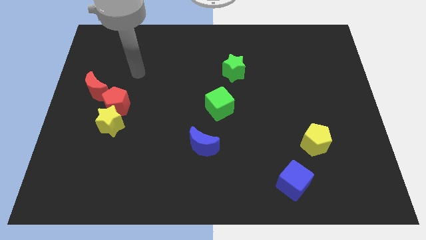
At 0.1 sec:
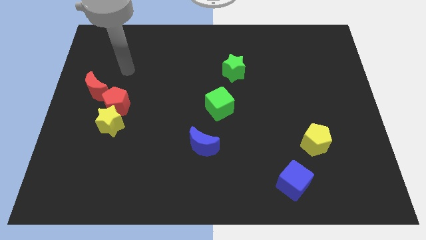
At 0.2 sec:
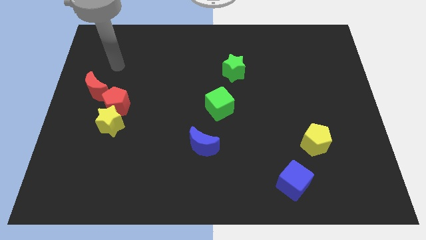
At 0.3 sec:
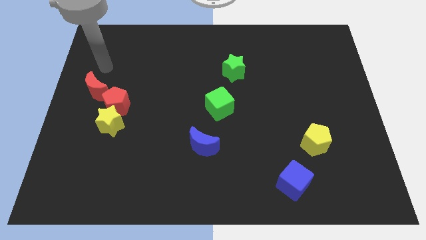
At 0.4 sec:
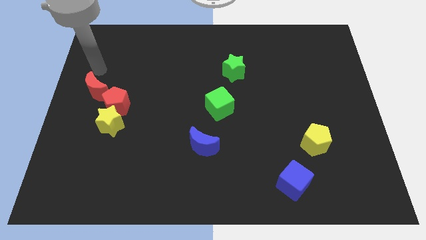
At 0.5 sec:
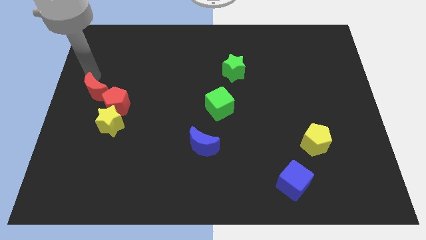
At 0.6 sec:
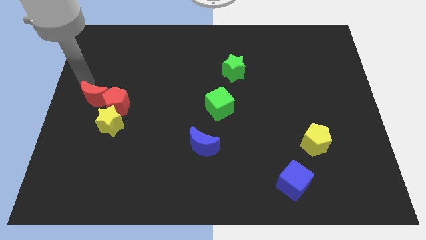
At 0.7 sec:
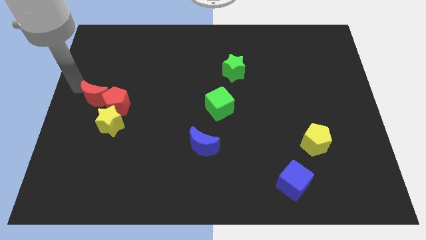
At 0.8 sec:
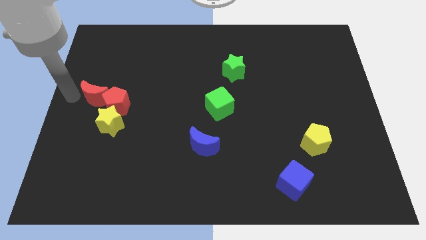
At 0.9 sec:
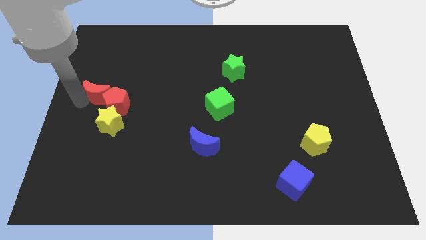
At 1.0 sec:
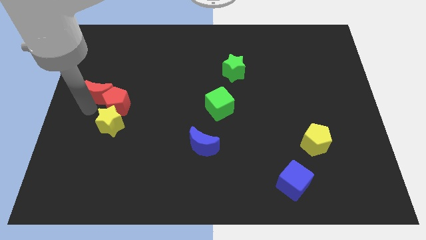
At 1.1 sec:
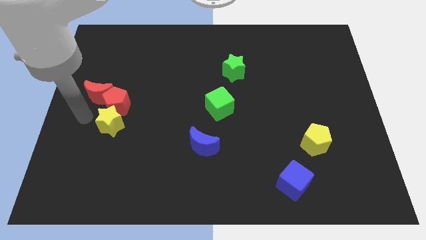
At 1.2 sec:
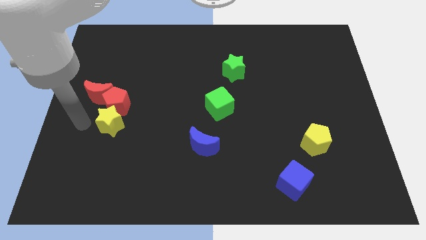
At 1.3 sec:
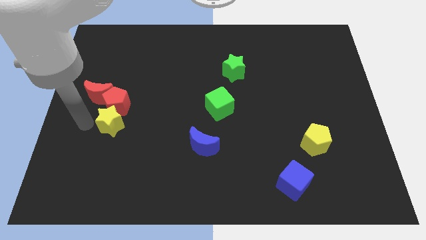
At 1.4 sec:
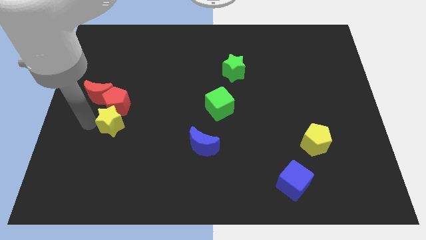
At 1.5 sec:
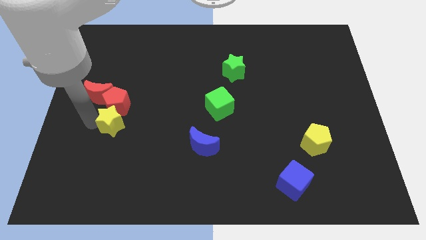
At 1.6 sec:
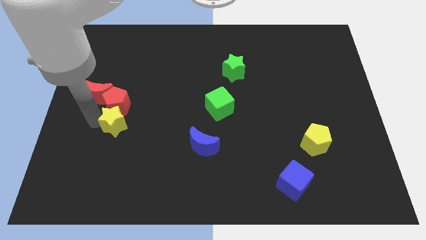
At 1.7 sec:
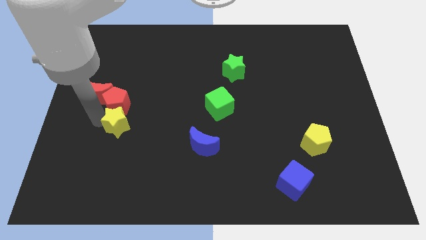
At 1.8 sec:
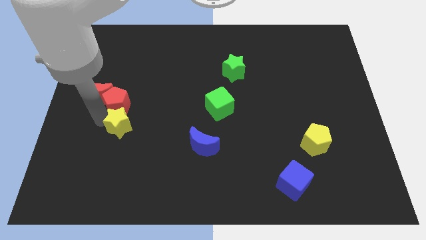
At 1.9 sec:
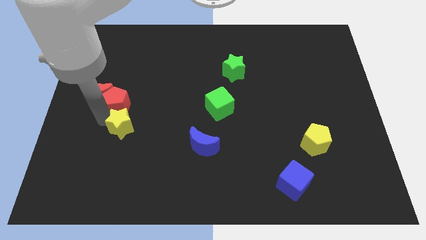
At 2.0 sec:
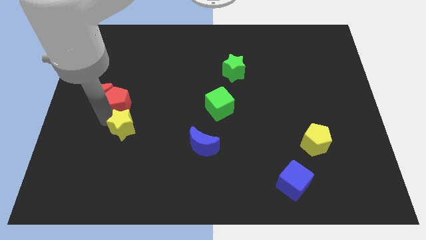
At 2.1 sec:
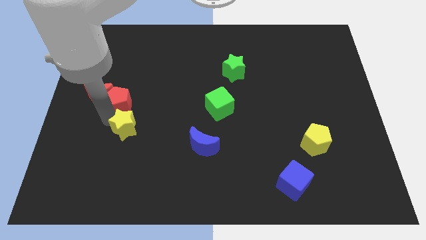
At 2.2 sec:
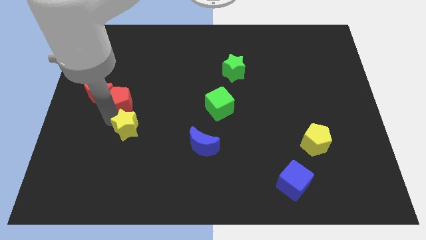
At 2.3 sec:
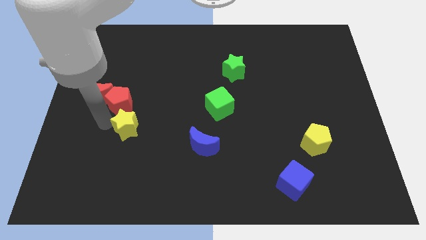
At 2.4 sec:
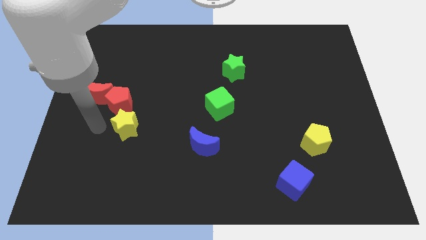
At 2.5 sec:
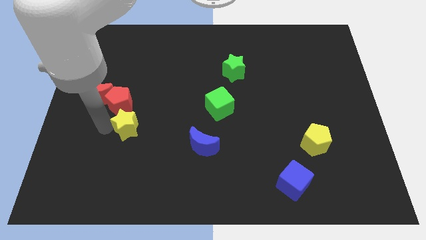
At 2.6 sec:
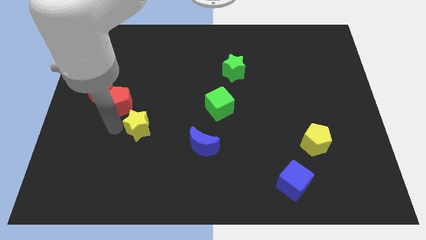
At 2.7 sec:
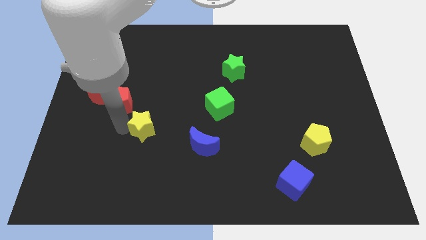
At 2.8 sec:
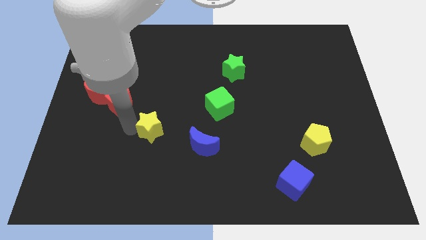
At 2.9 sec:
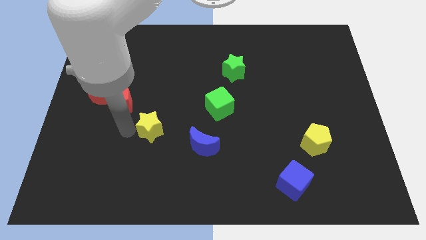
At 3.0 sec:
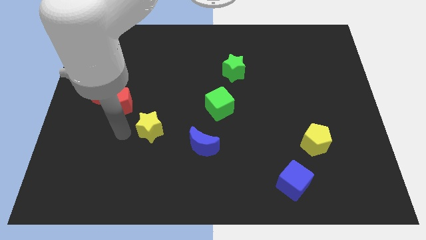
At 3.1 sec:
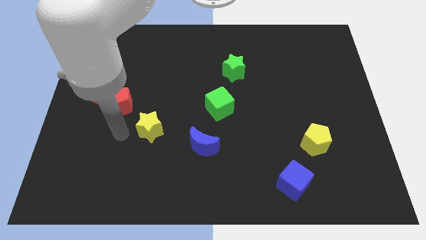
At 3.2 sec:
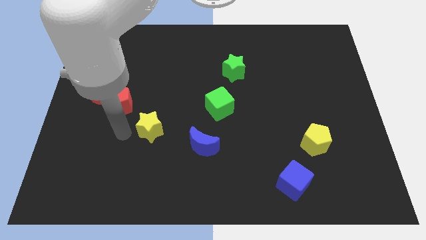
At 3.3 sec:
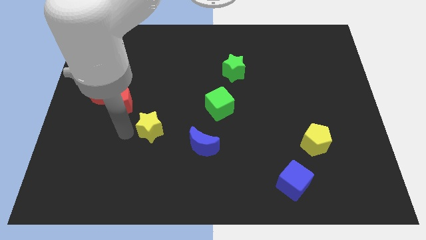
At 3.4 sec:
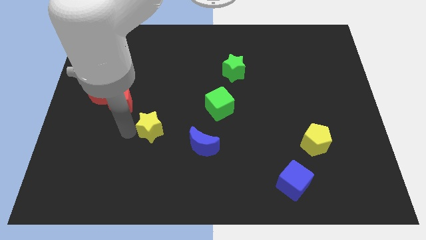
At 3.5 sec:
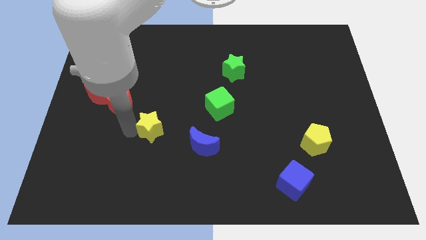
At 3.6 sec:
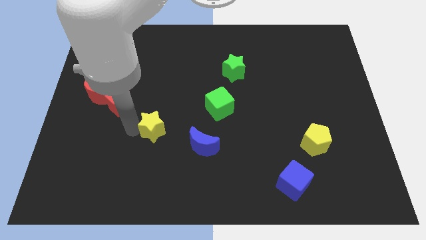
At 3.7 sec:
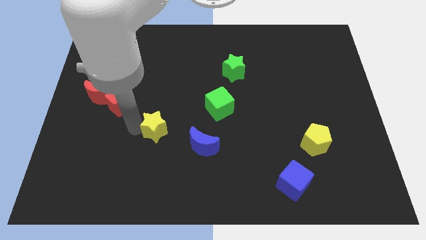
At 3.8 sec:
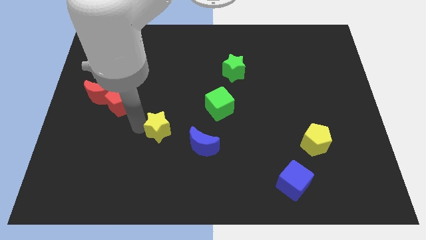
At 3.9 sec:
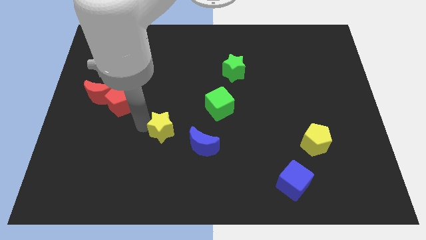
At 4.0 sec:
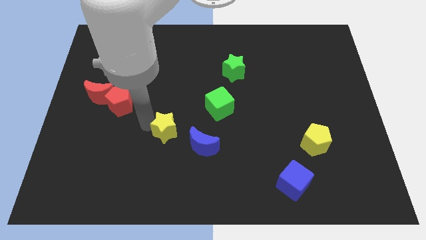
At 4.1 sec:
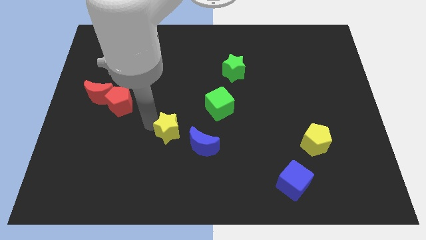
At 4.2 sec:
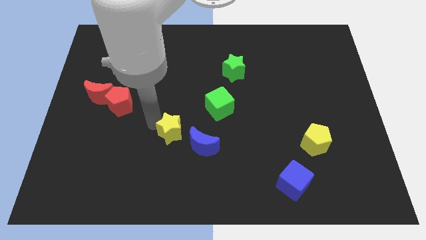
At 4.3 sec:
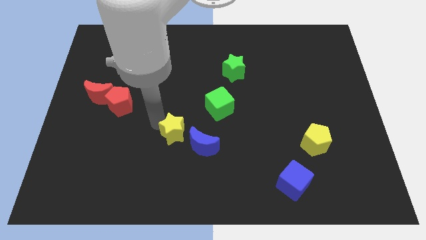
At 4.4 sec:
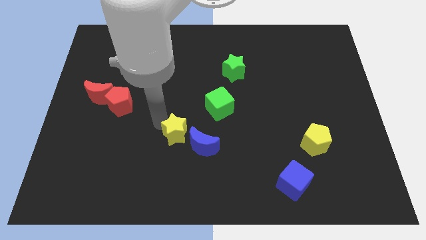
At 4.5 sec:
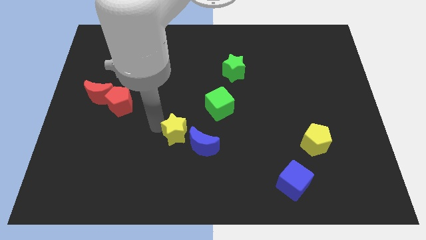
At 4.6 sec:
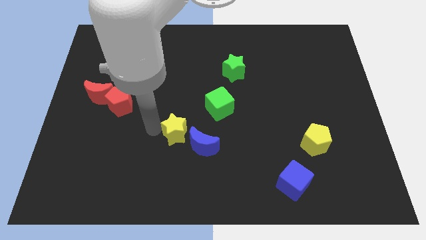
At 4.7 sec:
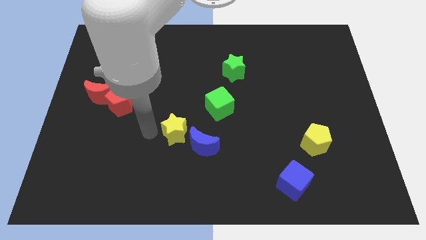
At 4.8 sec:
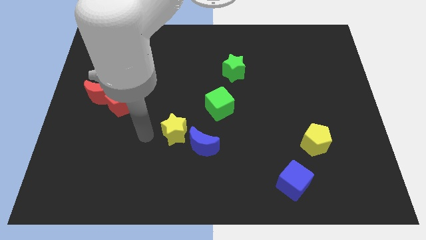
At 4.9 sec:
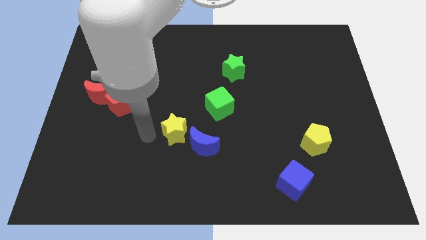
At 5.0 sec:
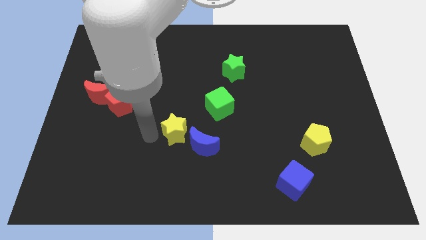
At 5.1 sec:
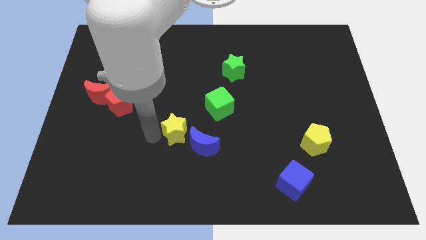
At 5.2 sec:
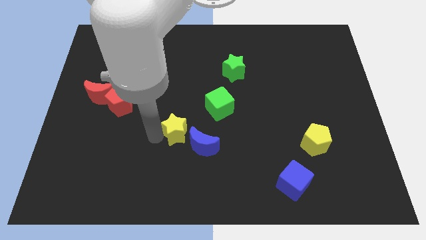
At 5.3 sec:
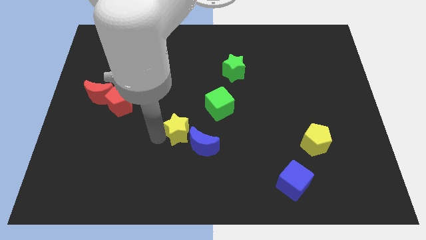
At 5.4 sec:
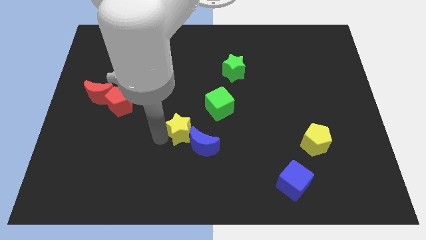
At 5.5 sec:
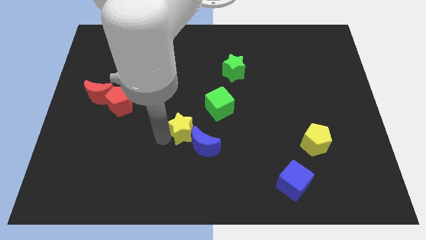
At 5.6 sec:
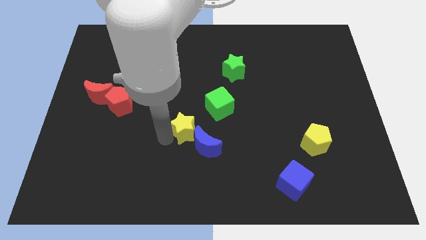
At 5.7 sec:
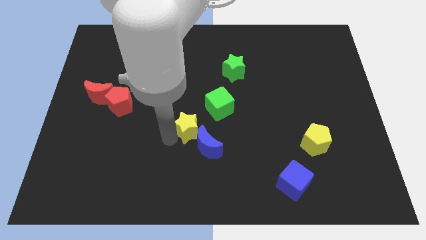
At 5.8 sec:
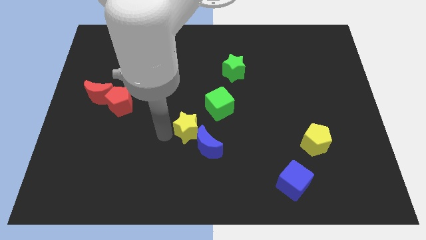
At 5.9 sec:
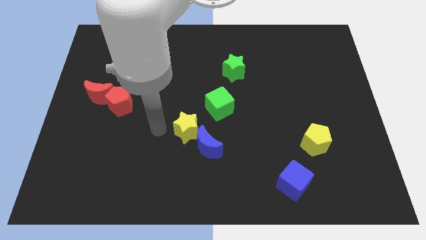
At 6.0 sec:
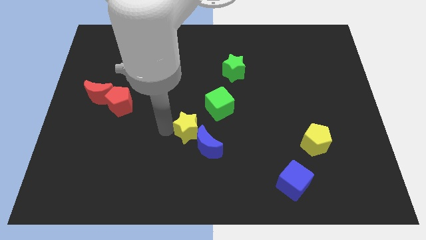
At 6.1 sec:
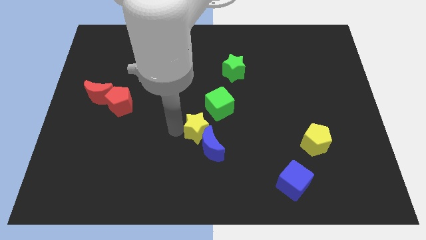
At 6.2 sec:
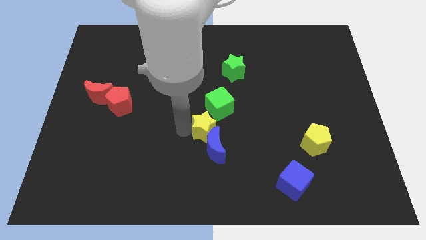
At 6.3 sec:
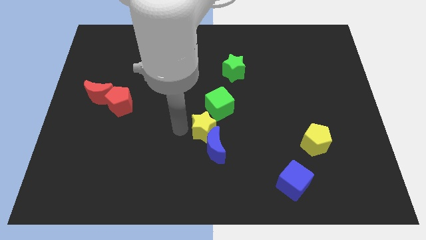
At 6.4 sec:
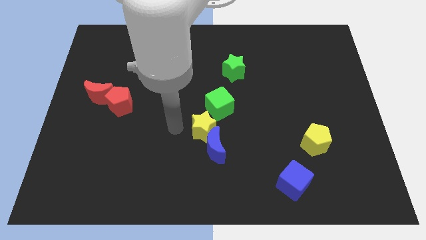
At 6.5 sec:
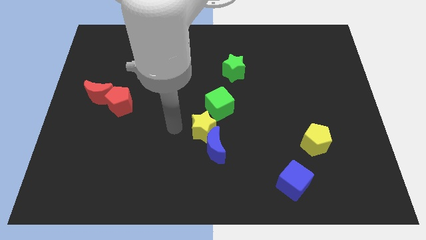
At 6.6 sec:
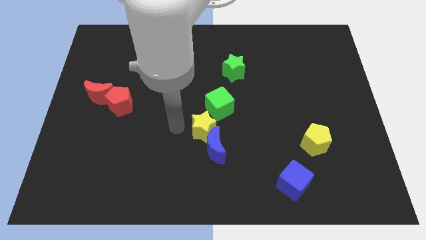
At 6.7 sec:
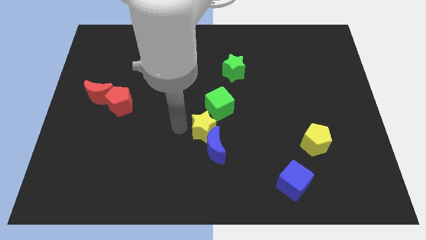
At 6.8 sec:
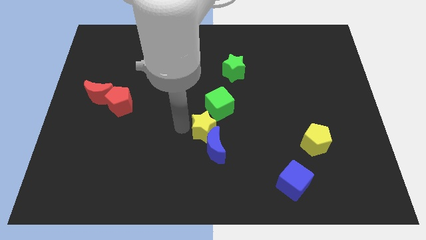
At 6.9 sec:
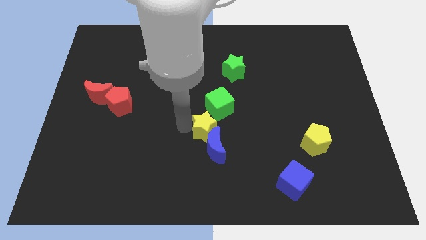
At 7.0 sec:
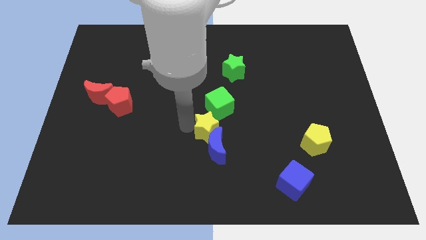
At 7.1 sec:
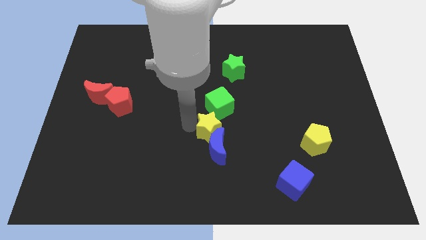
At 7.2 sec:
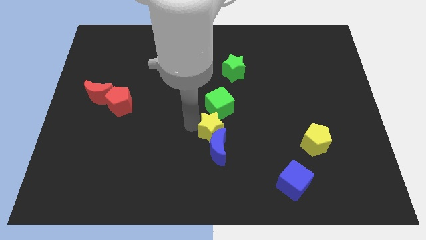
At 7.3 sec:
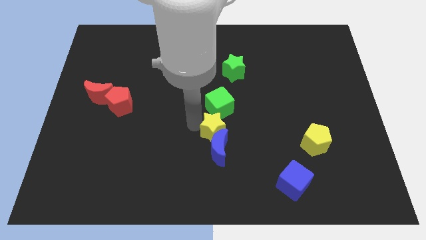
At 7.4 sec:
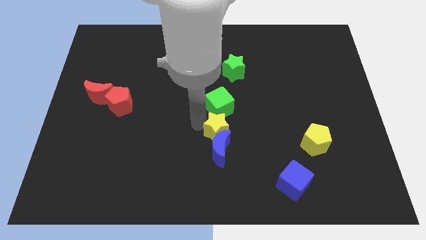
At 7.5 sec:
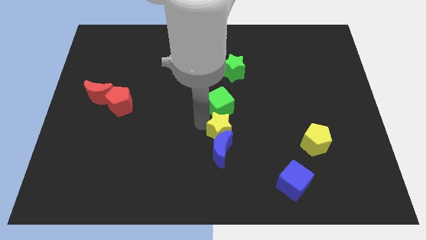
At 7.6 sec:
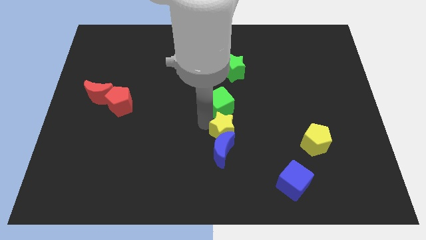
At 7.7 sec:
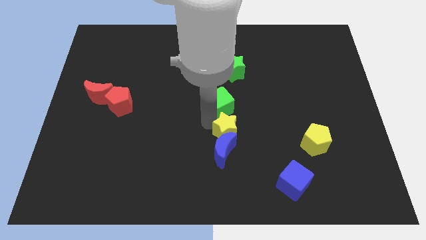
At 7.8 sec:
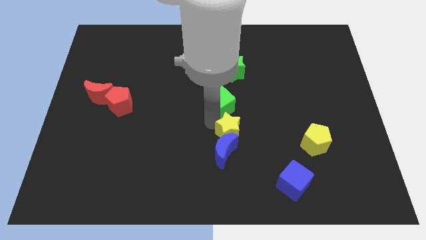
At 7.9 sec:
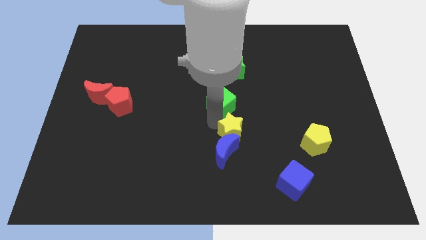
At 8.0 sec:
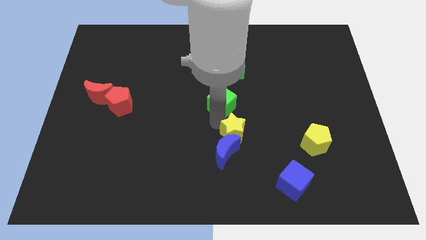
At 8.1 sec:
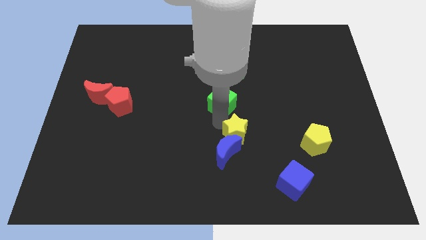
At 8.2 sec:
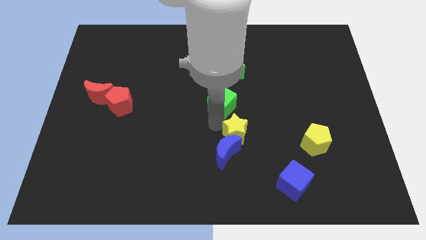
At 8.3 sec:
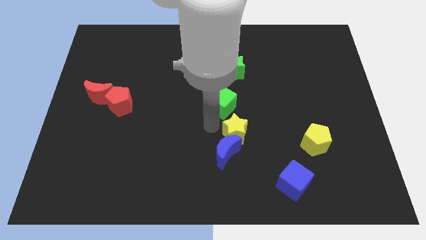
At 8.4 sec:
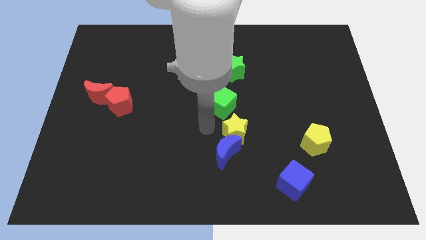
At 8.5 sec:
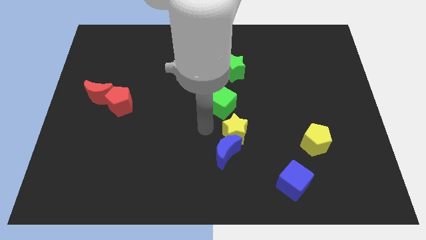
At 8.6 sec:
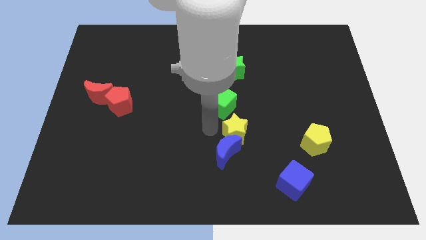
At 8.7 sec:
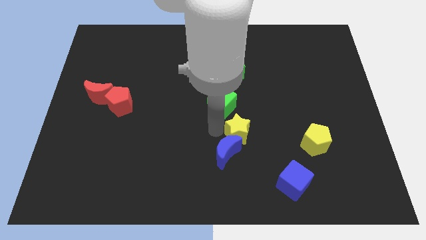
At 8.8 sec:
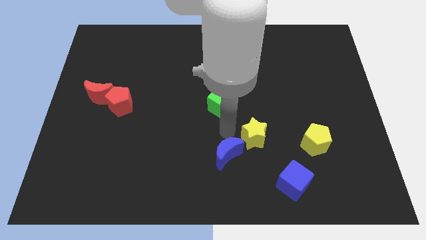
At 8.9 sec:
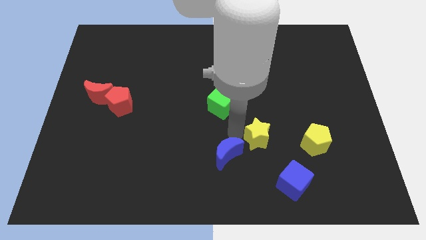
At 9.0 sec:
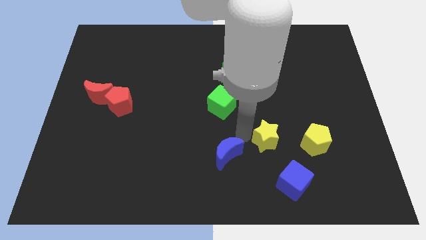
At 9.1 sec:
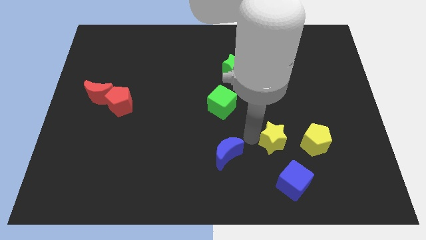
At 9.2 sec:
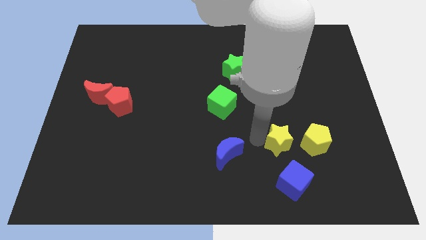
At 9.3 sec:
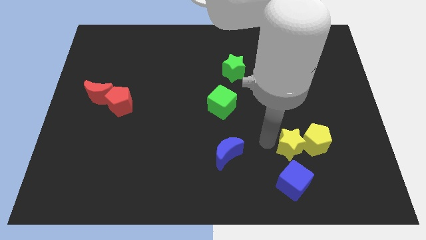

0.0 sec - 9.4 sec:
put the yellow star next to the yellow pentagon
